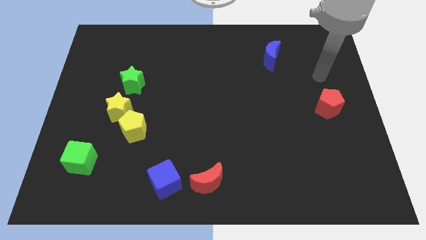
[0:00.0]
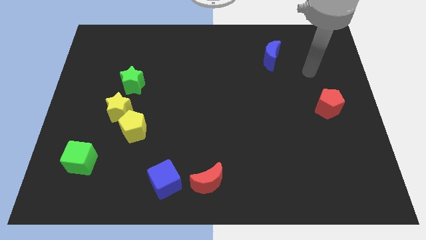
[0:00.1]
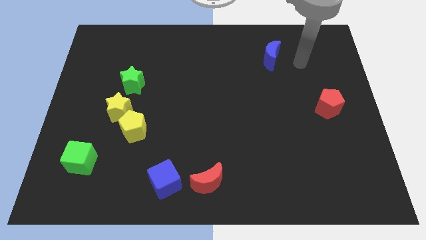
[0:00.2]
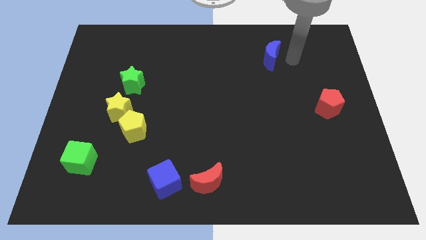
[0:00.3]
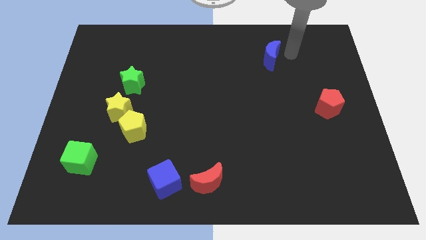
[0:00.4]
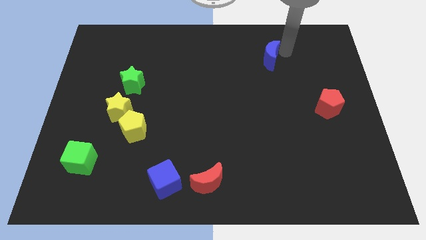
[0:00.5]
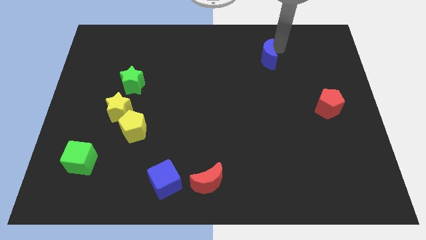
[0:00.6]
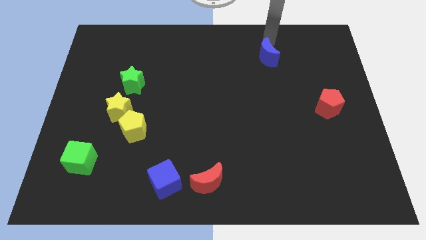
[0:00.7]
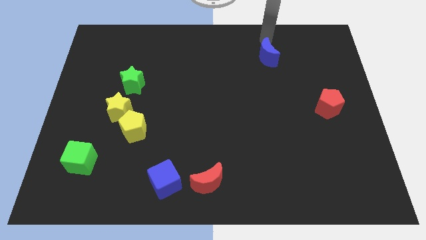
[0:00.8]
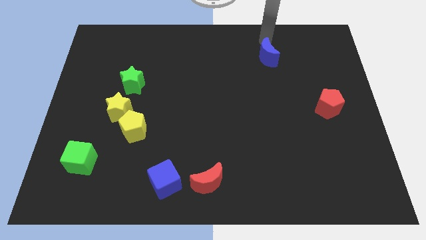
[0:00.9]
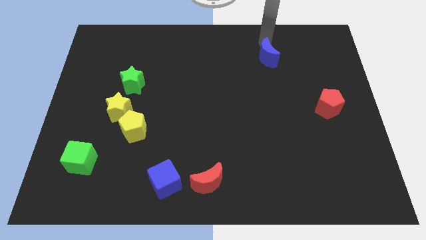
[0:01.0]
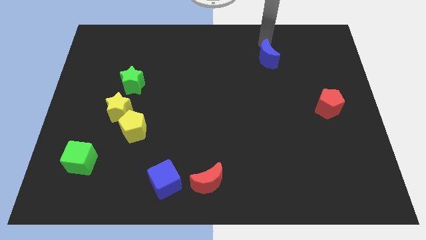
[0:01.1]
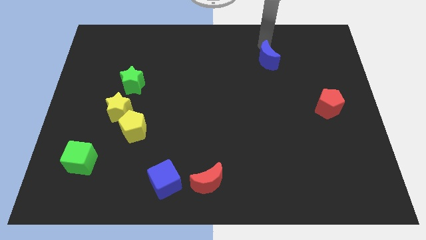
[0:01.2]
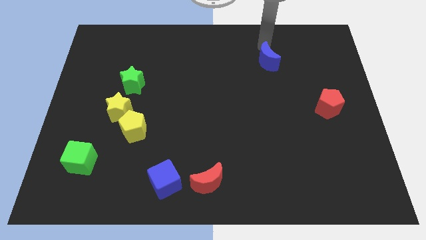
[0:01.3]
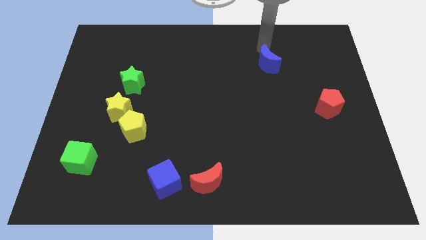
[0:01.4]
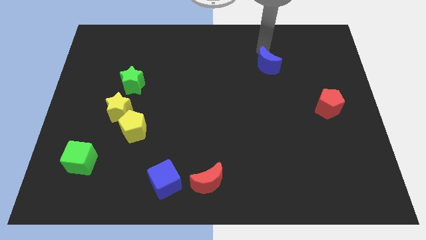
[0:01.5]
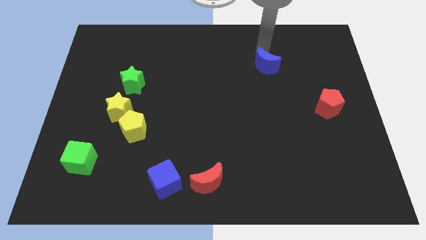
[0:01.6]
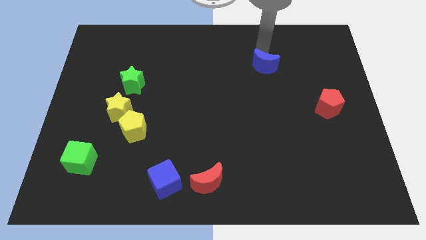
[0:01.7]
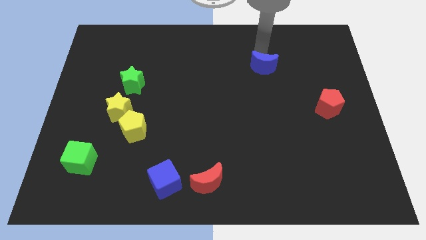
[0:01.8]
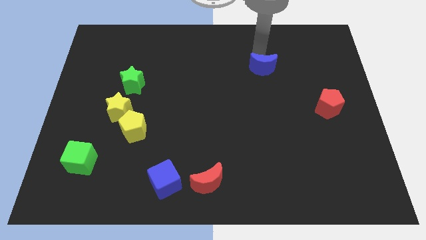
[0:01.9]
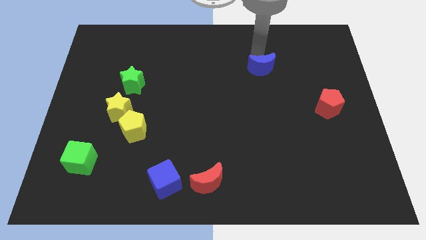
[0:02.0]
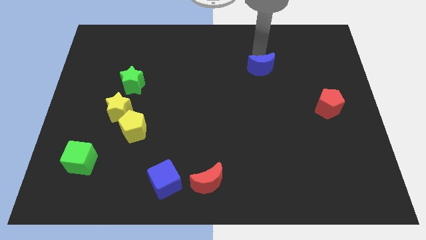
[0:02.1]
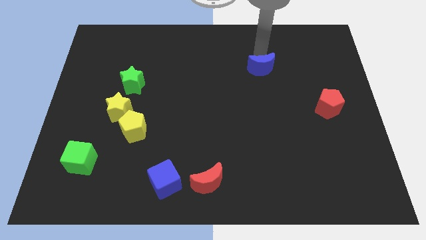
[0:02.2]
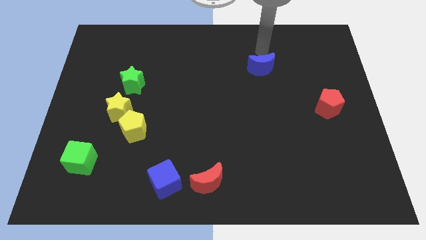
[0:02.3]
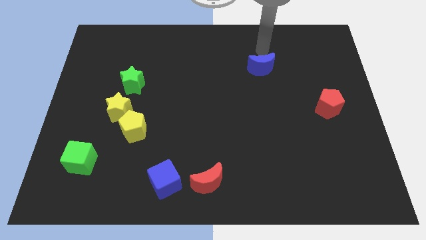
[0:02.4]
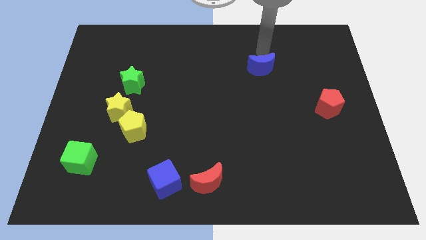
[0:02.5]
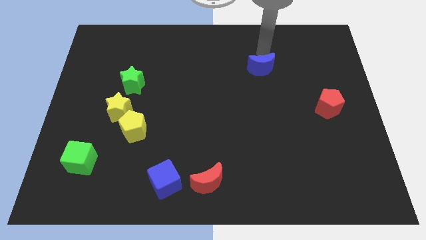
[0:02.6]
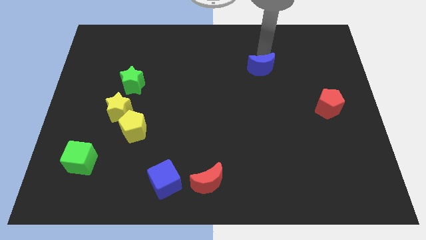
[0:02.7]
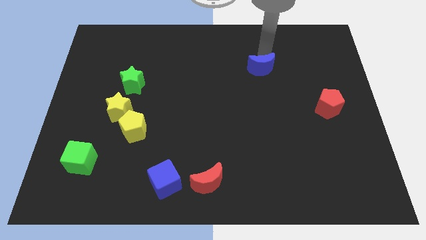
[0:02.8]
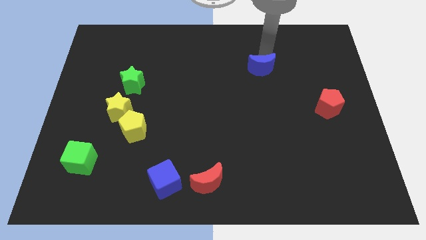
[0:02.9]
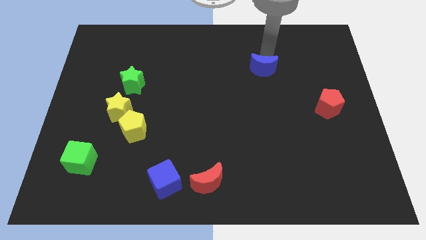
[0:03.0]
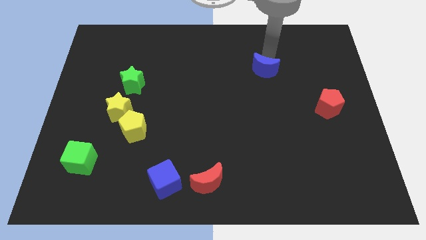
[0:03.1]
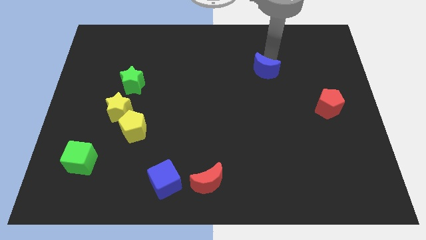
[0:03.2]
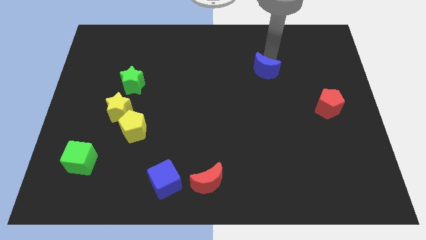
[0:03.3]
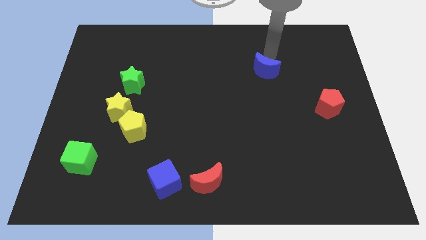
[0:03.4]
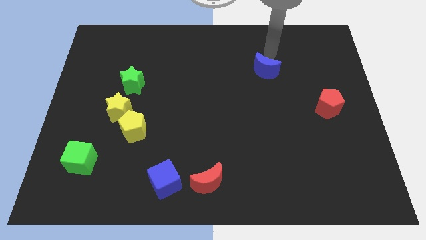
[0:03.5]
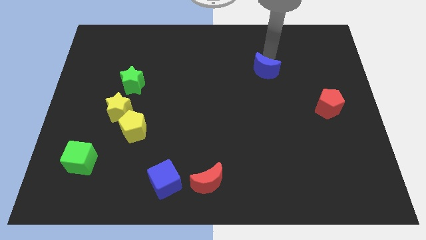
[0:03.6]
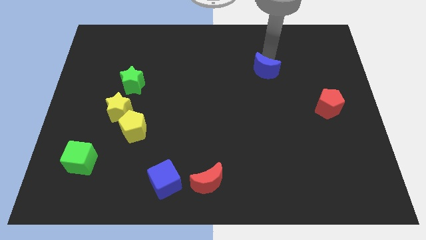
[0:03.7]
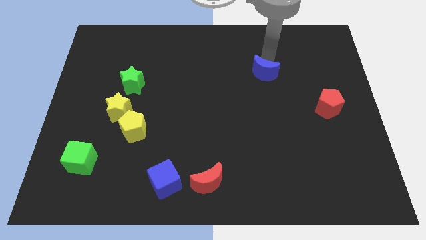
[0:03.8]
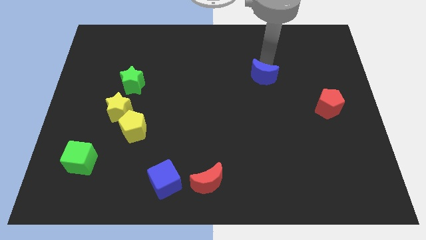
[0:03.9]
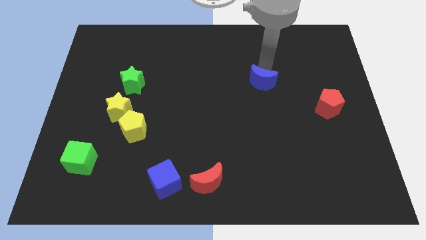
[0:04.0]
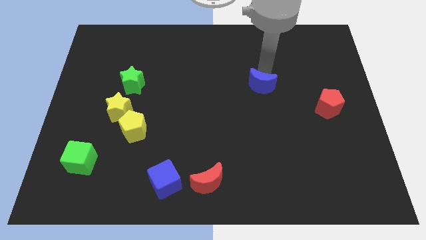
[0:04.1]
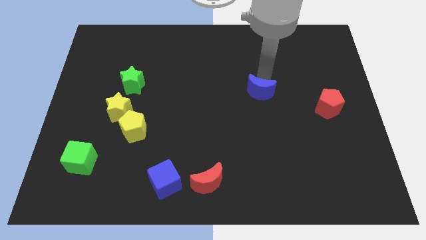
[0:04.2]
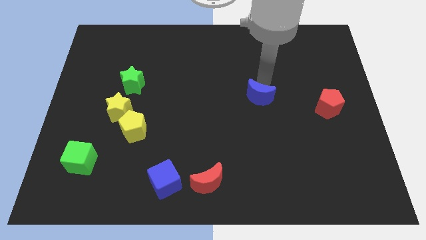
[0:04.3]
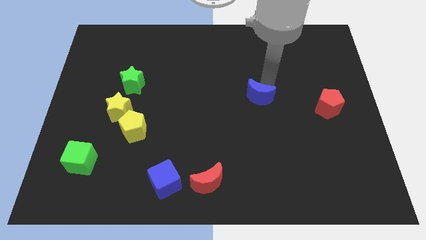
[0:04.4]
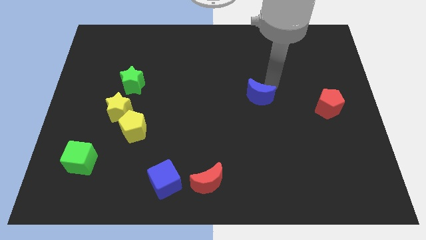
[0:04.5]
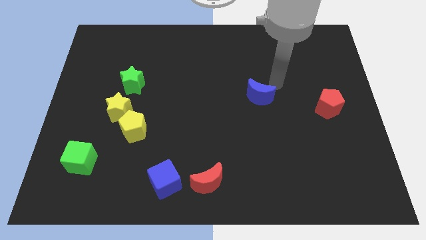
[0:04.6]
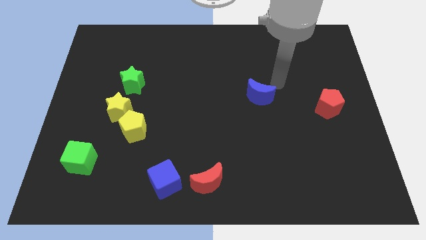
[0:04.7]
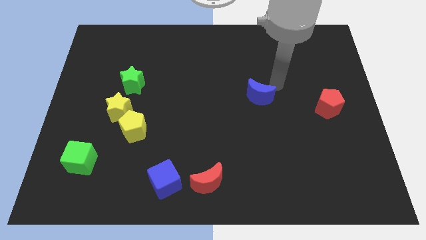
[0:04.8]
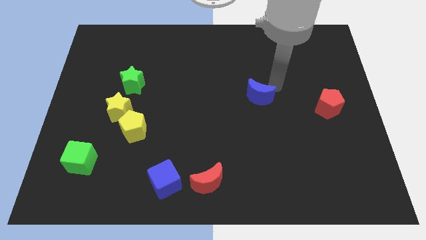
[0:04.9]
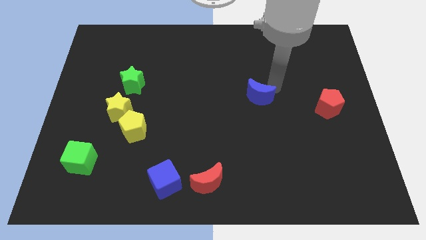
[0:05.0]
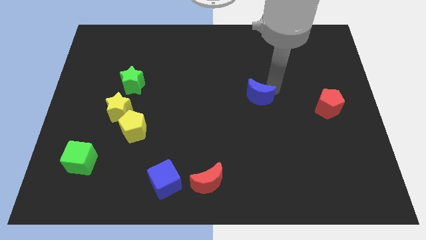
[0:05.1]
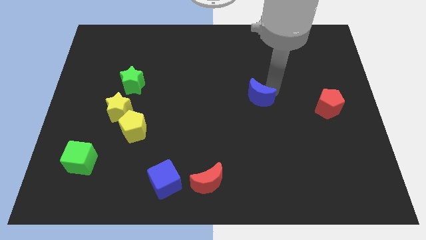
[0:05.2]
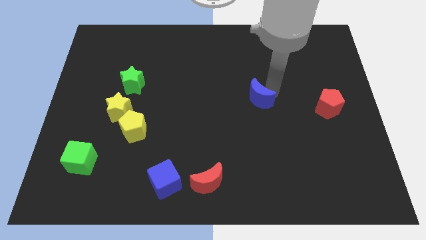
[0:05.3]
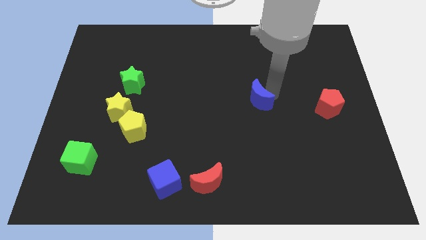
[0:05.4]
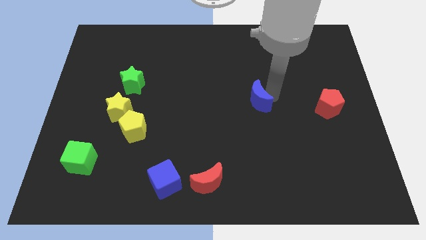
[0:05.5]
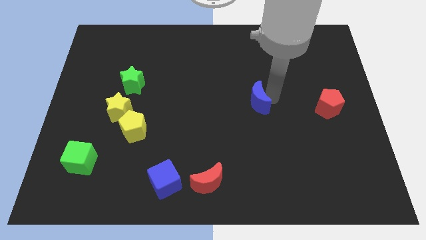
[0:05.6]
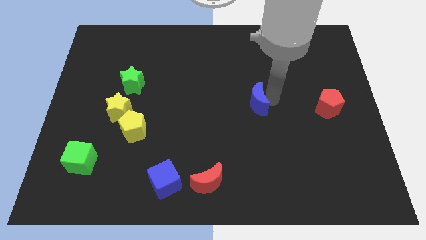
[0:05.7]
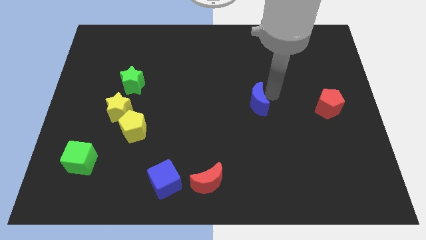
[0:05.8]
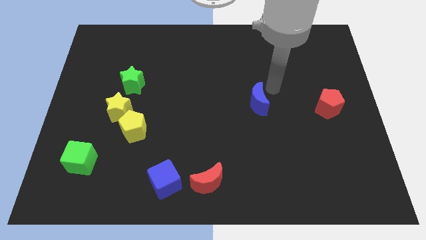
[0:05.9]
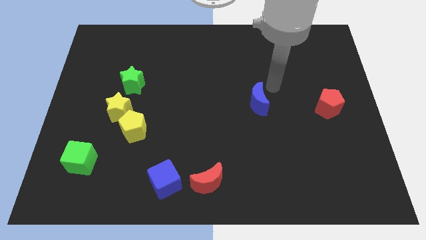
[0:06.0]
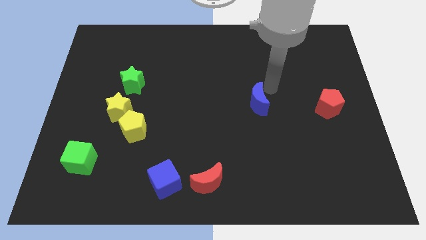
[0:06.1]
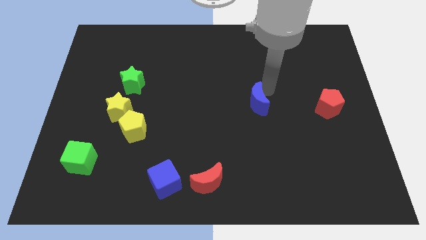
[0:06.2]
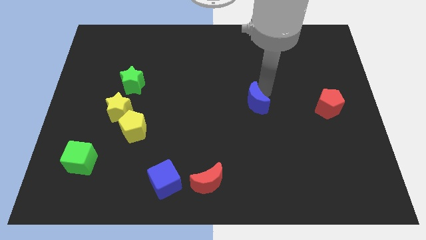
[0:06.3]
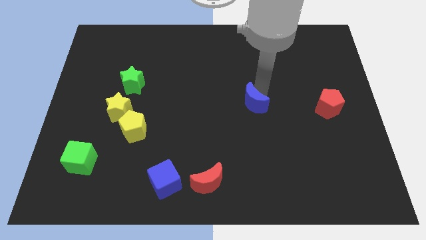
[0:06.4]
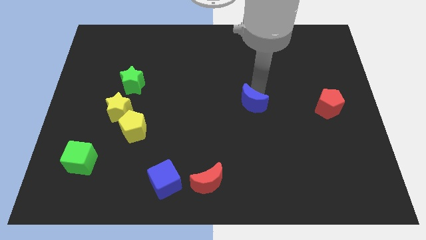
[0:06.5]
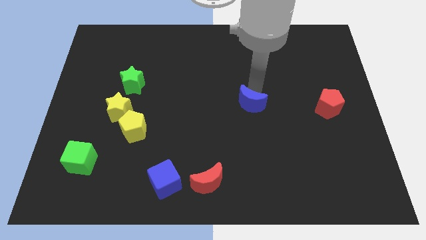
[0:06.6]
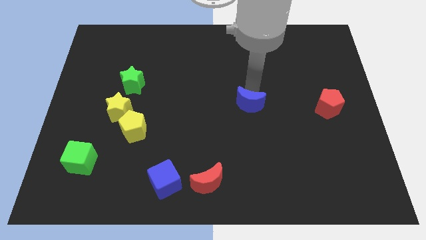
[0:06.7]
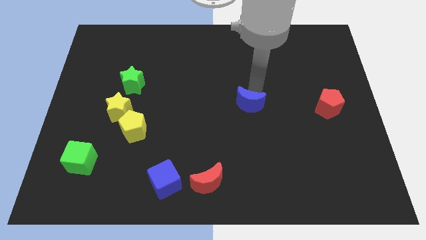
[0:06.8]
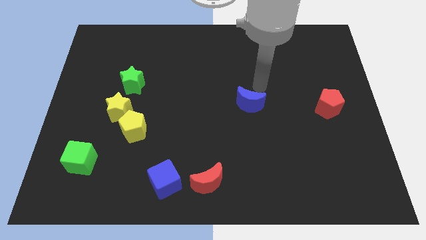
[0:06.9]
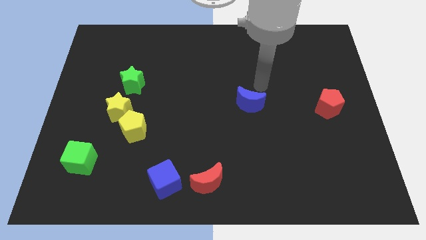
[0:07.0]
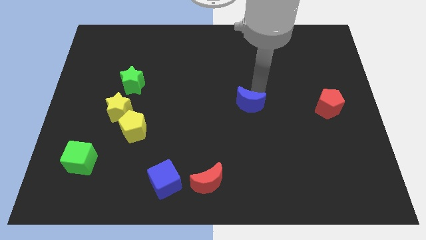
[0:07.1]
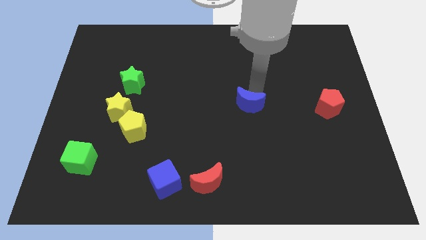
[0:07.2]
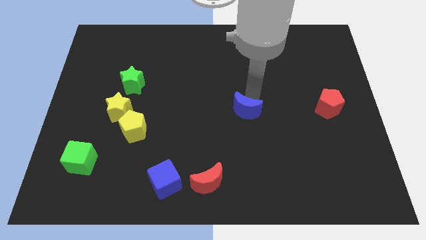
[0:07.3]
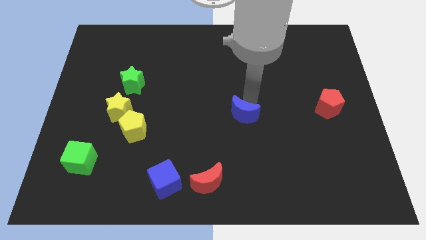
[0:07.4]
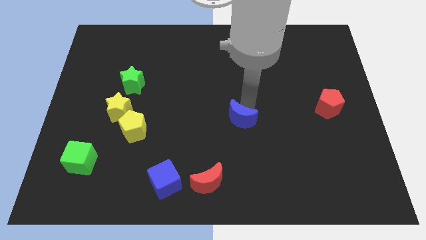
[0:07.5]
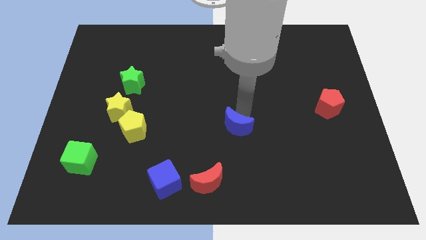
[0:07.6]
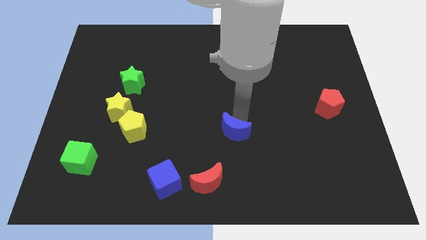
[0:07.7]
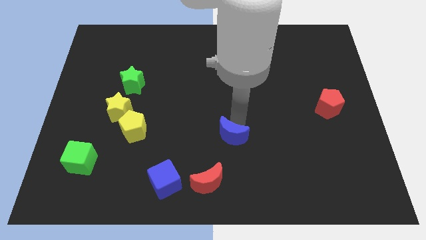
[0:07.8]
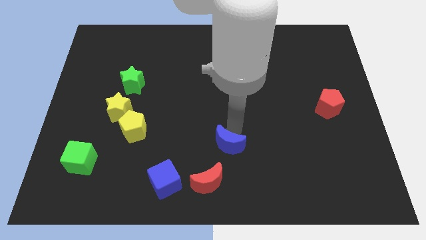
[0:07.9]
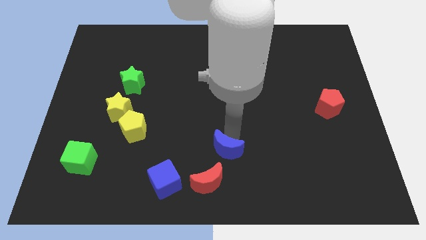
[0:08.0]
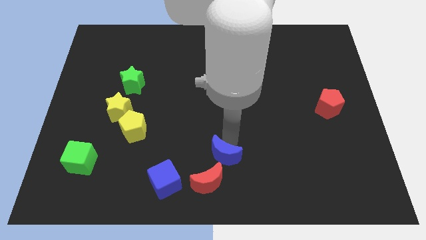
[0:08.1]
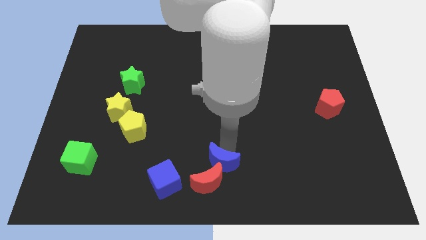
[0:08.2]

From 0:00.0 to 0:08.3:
slide the blue moon towards the red moon
